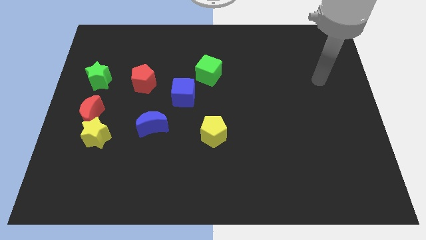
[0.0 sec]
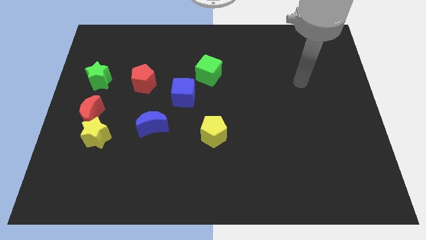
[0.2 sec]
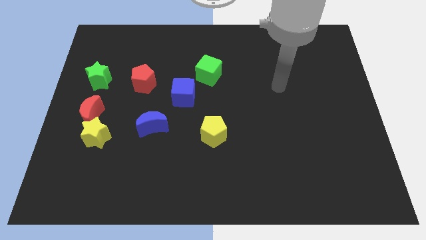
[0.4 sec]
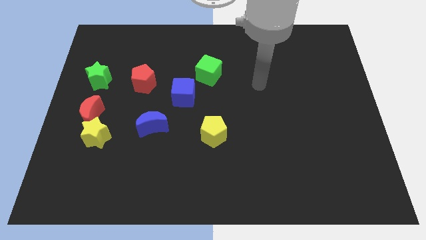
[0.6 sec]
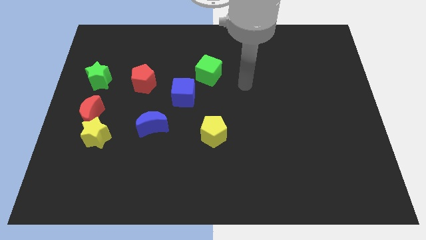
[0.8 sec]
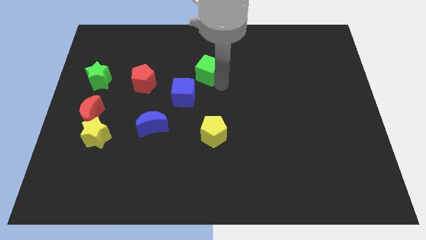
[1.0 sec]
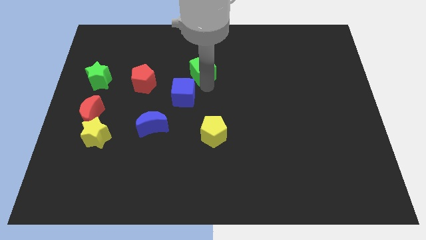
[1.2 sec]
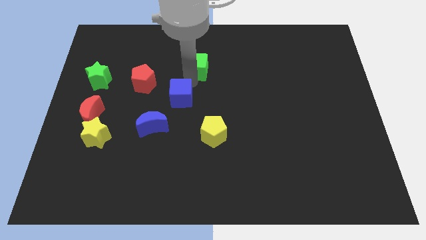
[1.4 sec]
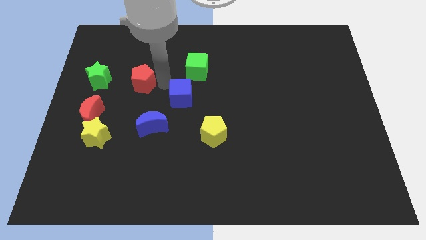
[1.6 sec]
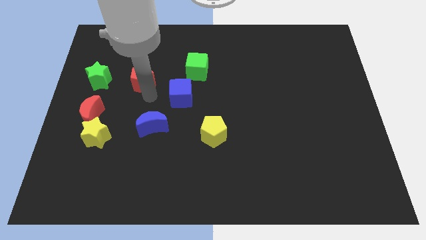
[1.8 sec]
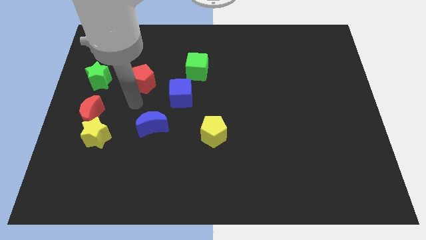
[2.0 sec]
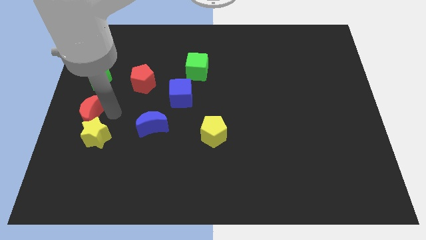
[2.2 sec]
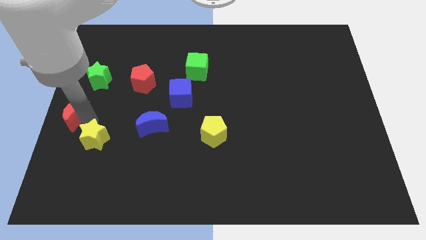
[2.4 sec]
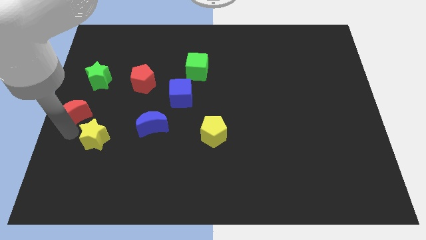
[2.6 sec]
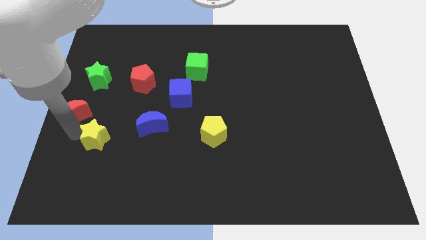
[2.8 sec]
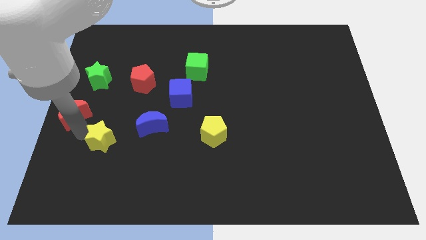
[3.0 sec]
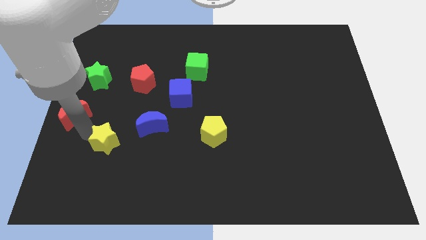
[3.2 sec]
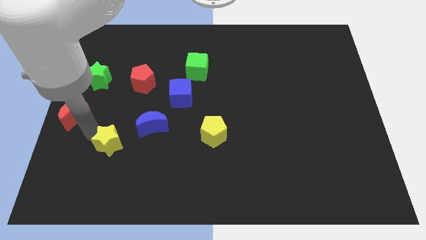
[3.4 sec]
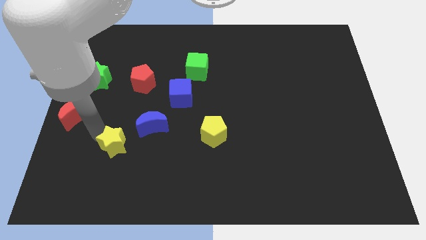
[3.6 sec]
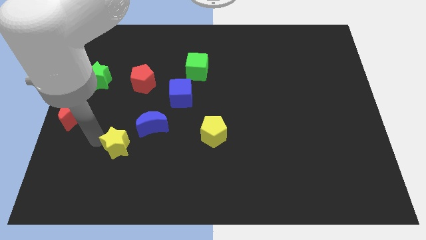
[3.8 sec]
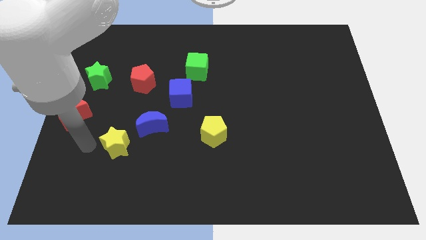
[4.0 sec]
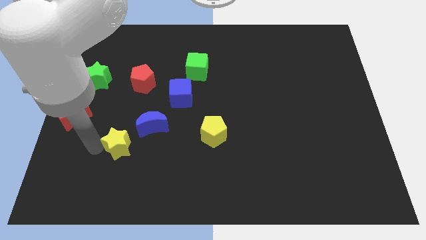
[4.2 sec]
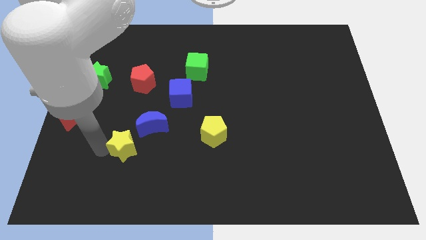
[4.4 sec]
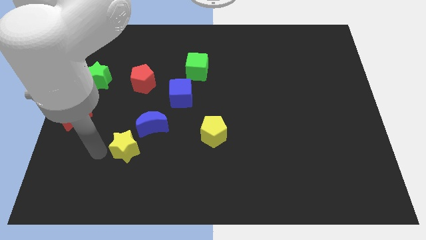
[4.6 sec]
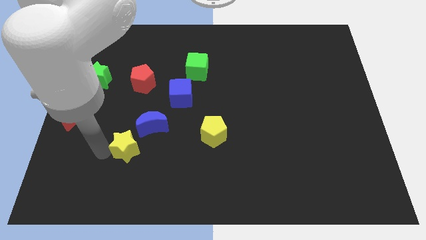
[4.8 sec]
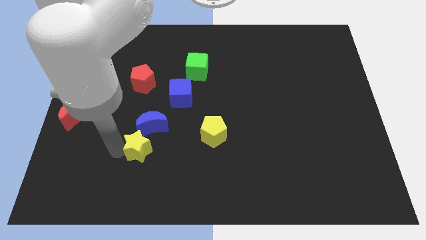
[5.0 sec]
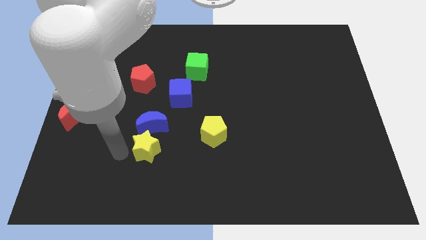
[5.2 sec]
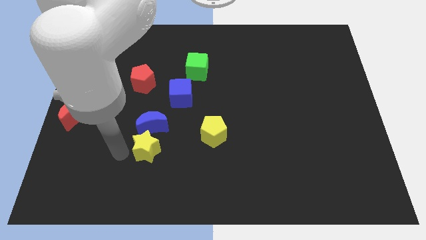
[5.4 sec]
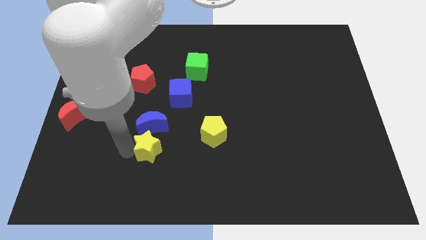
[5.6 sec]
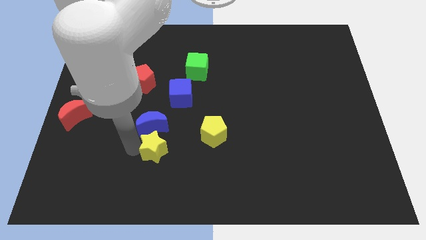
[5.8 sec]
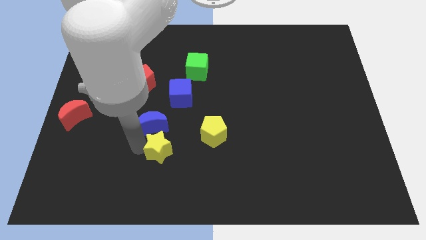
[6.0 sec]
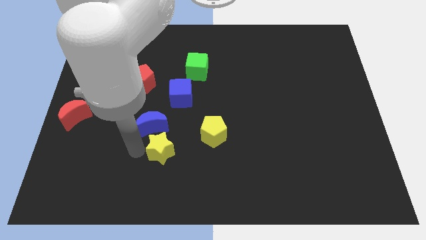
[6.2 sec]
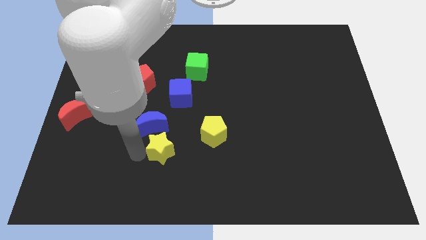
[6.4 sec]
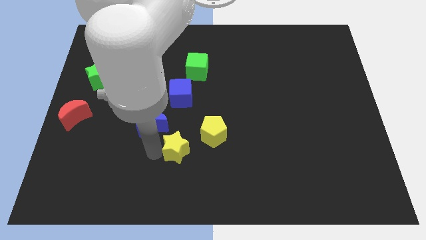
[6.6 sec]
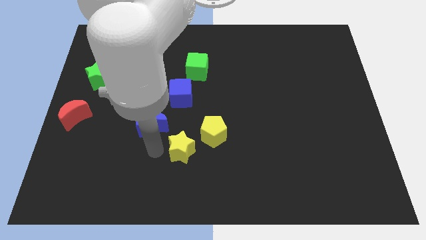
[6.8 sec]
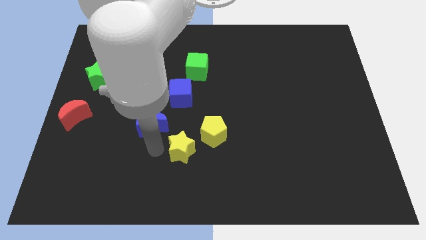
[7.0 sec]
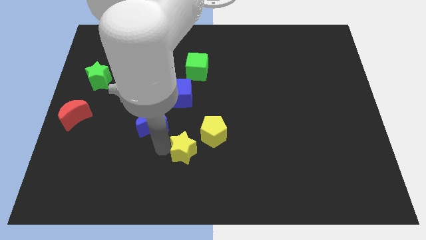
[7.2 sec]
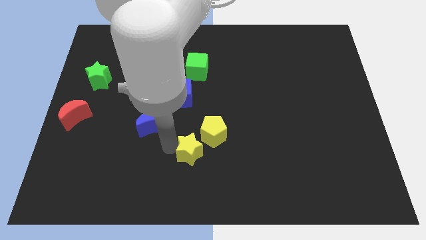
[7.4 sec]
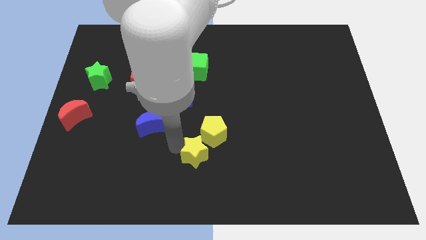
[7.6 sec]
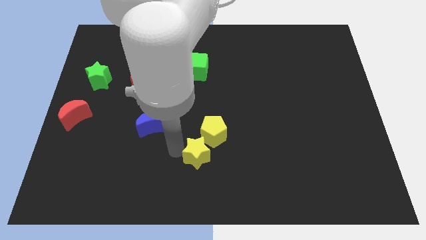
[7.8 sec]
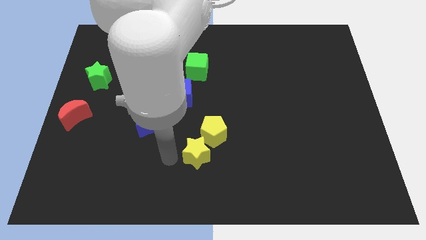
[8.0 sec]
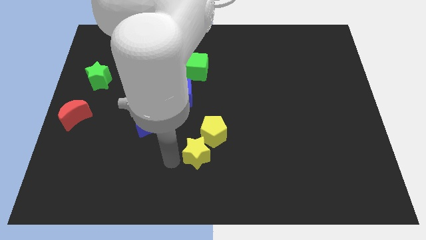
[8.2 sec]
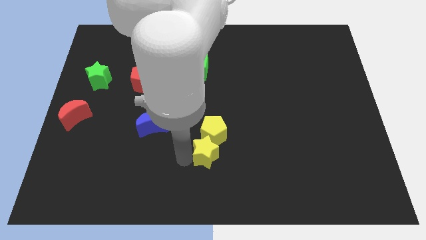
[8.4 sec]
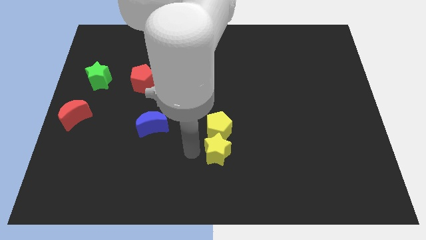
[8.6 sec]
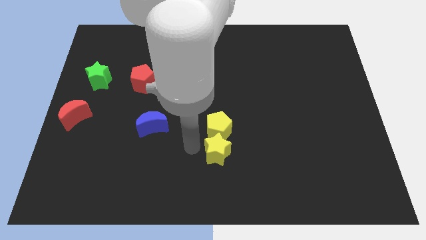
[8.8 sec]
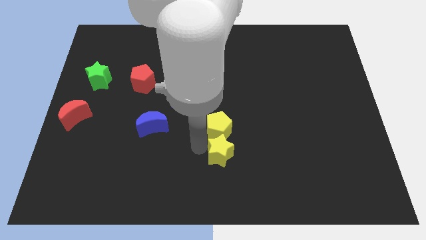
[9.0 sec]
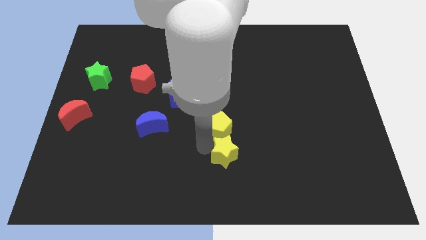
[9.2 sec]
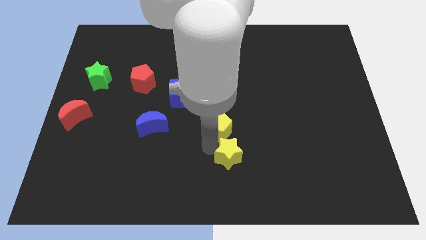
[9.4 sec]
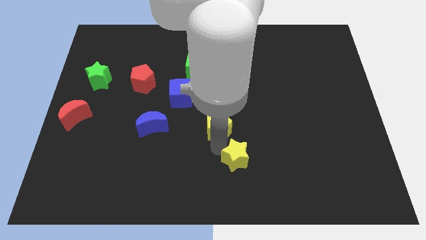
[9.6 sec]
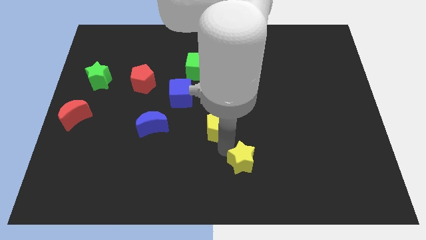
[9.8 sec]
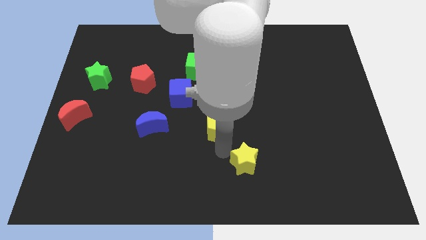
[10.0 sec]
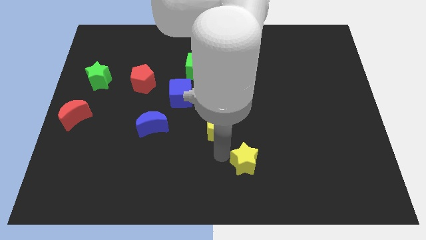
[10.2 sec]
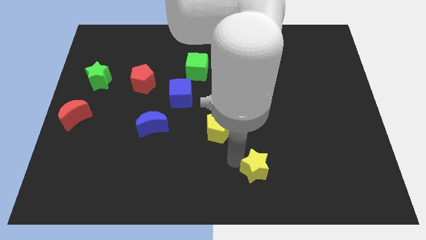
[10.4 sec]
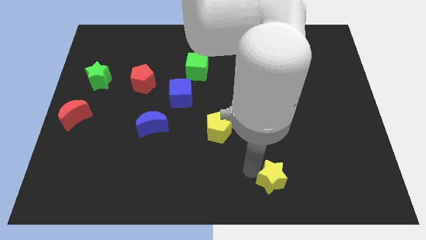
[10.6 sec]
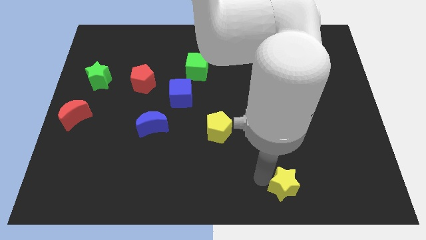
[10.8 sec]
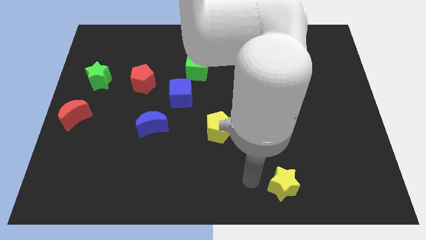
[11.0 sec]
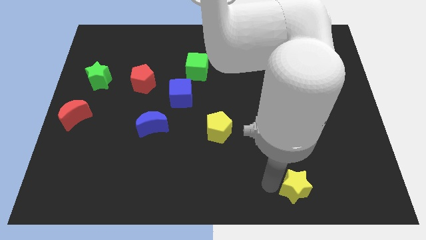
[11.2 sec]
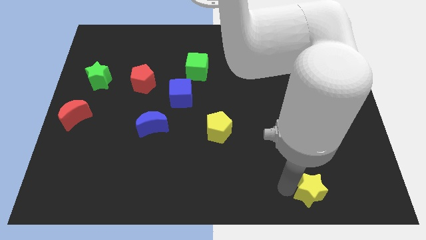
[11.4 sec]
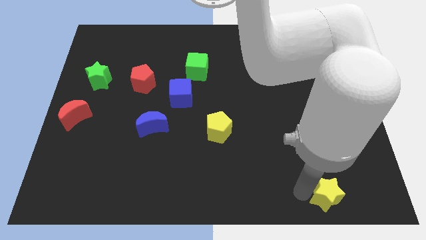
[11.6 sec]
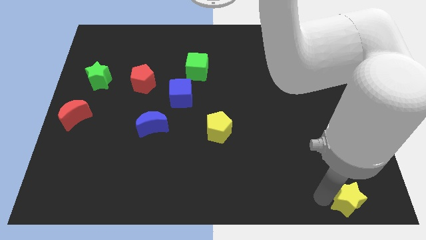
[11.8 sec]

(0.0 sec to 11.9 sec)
move the yellow star to the lower right corner

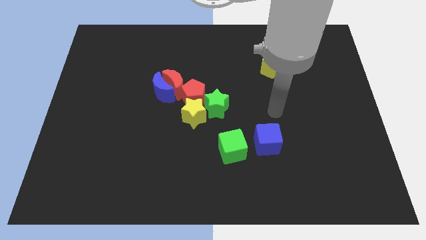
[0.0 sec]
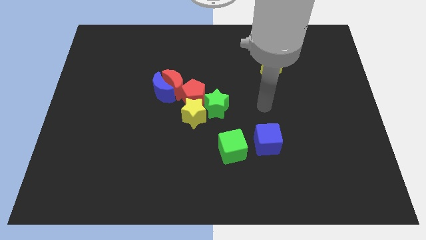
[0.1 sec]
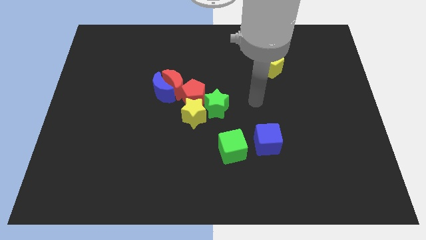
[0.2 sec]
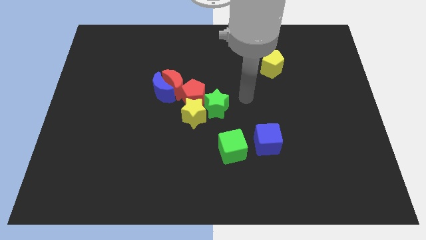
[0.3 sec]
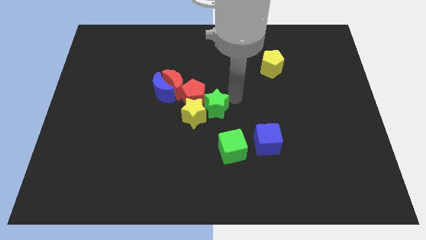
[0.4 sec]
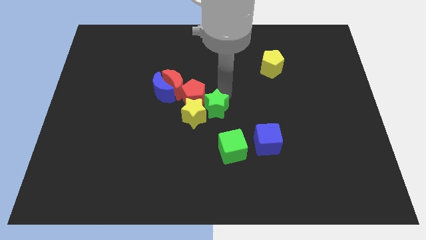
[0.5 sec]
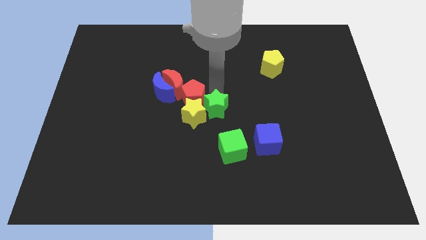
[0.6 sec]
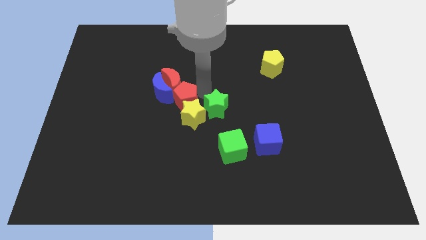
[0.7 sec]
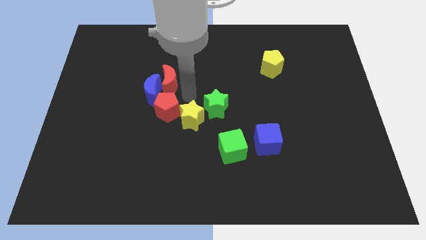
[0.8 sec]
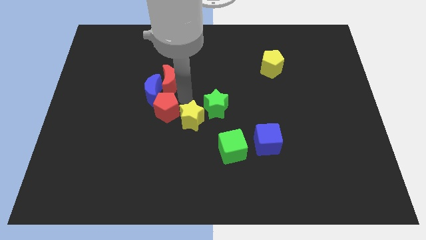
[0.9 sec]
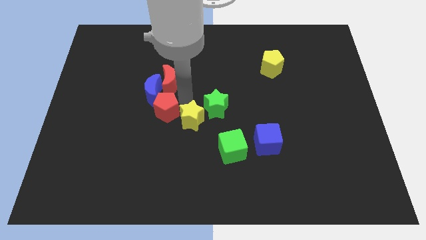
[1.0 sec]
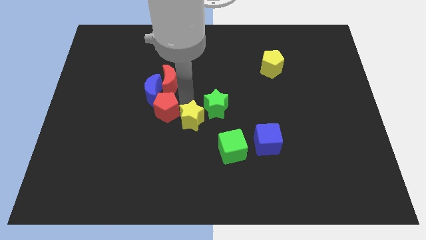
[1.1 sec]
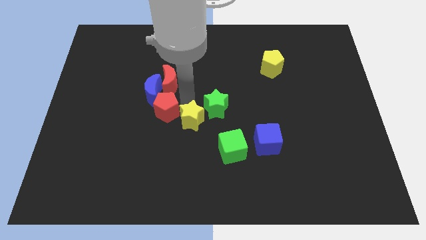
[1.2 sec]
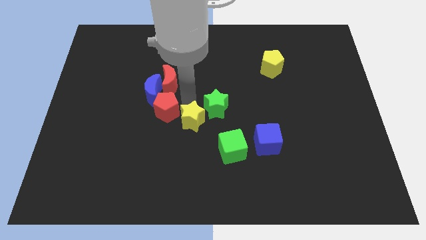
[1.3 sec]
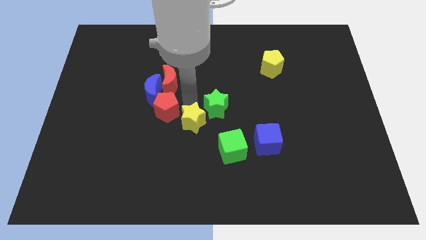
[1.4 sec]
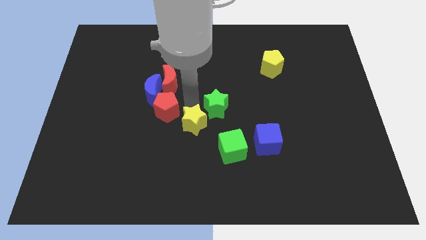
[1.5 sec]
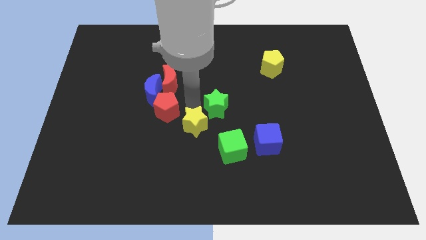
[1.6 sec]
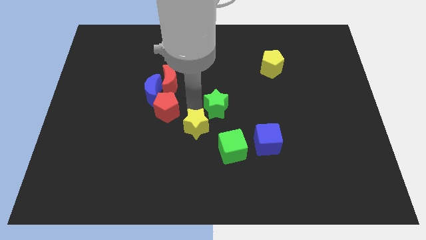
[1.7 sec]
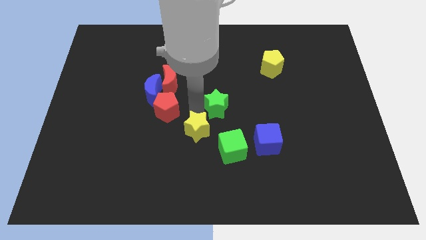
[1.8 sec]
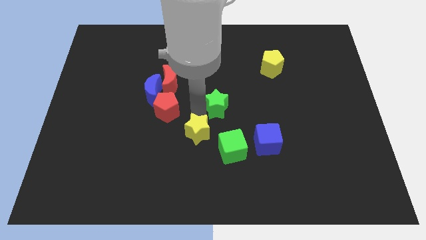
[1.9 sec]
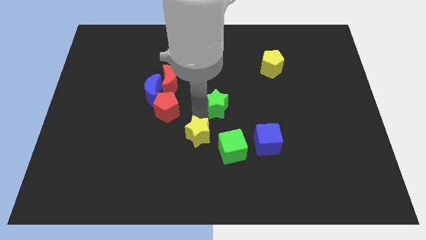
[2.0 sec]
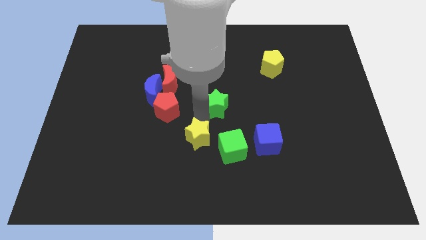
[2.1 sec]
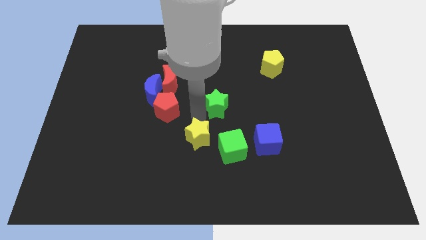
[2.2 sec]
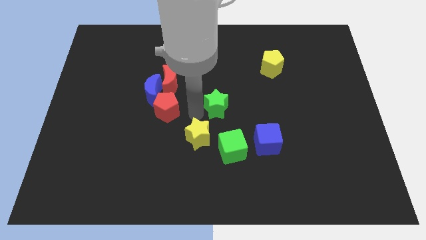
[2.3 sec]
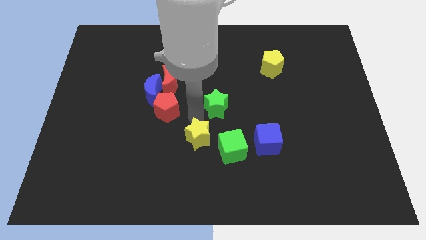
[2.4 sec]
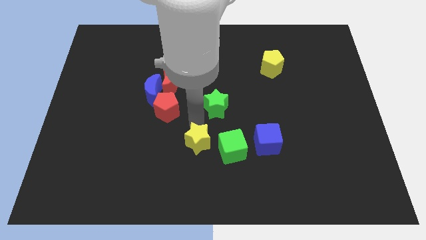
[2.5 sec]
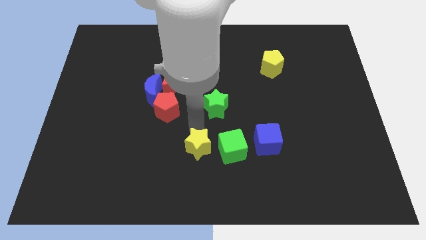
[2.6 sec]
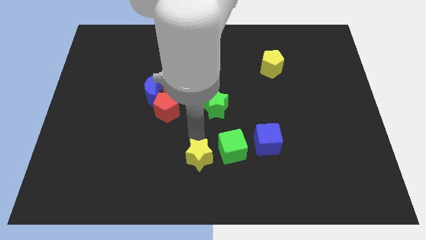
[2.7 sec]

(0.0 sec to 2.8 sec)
push the yellow star to the bottom side
